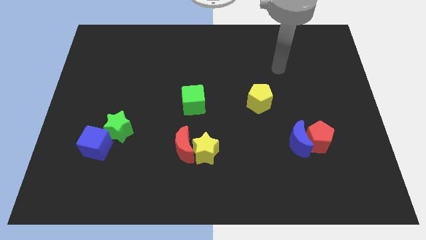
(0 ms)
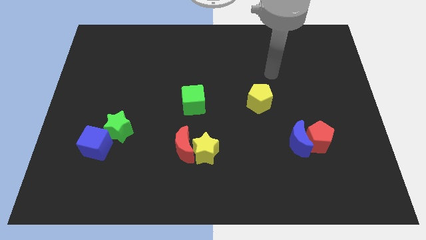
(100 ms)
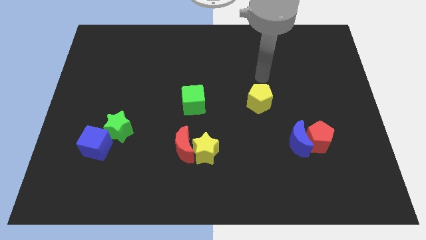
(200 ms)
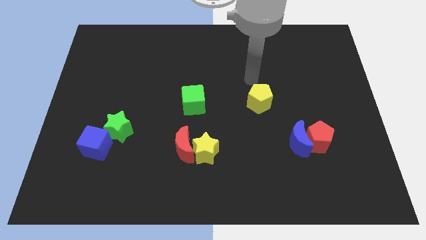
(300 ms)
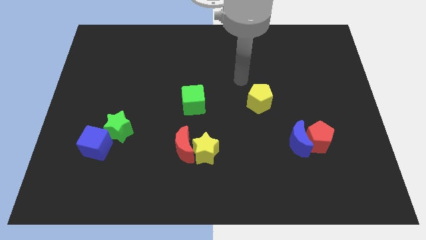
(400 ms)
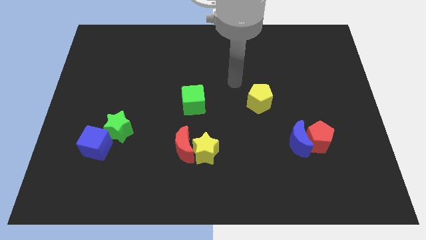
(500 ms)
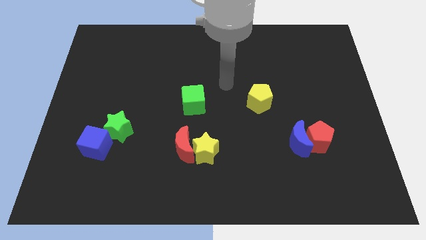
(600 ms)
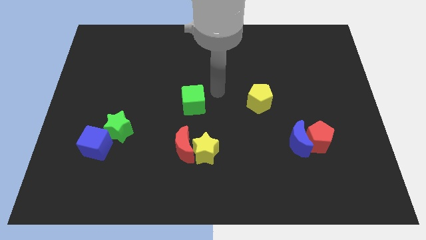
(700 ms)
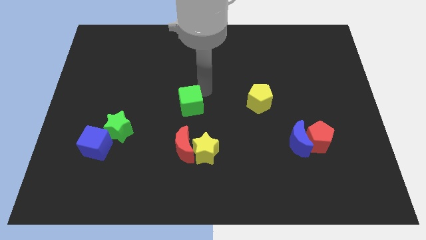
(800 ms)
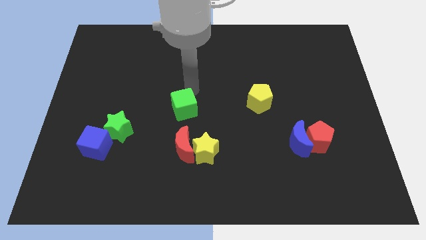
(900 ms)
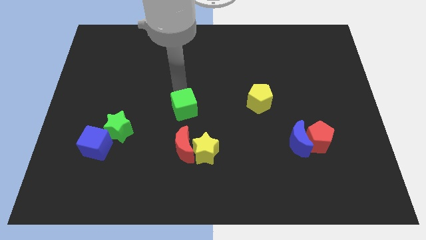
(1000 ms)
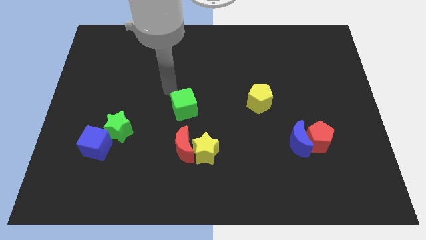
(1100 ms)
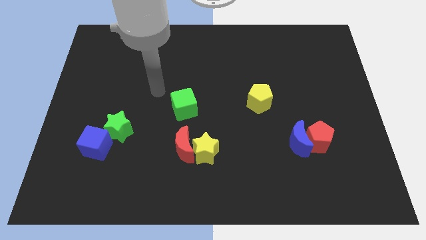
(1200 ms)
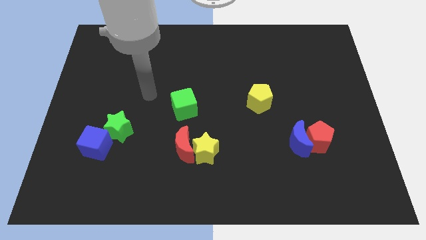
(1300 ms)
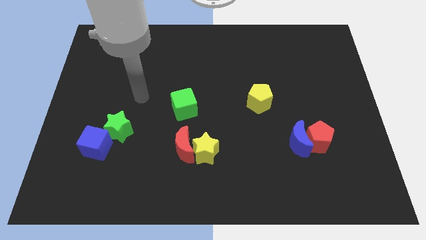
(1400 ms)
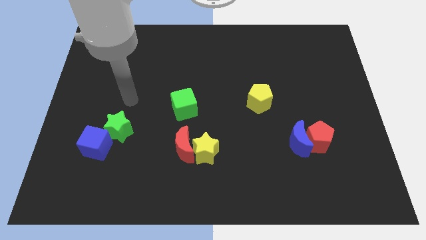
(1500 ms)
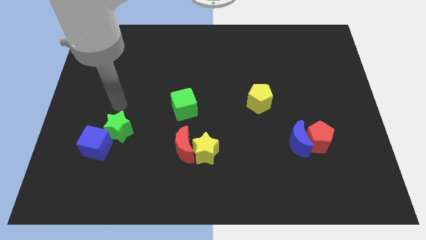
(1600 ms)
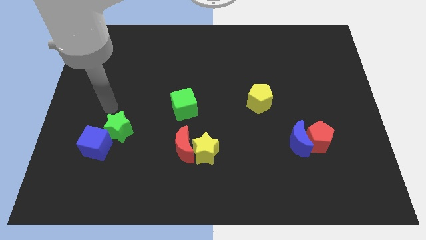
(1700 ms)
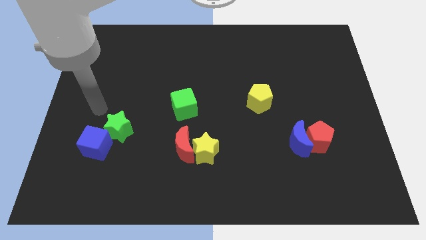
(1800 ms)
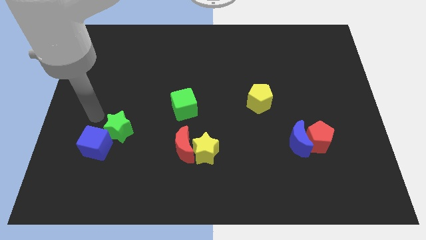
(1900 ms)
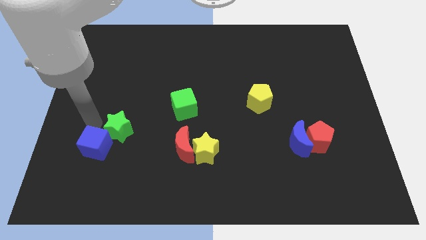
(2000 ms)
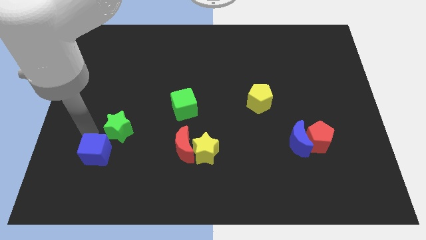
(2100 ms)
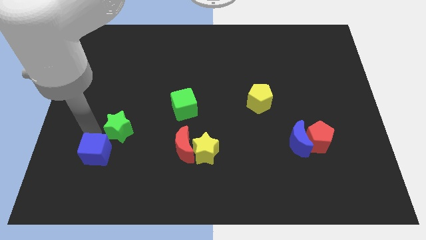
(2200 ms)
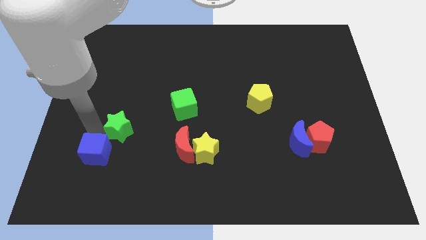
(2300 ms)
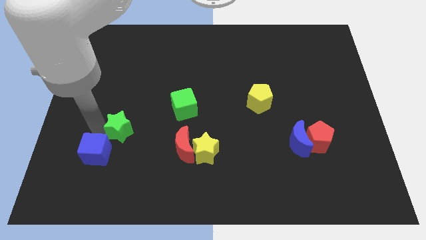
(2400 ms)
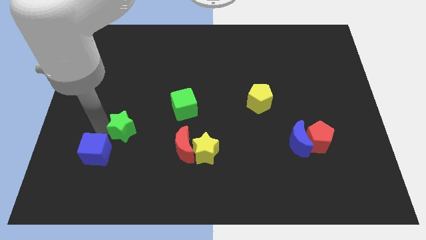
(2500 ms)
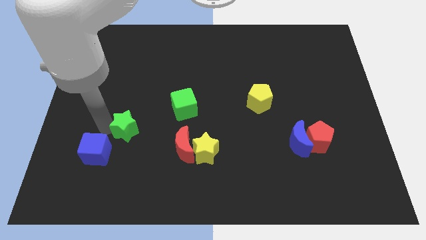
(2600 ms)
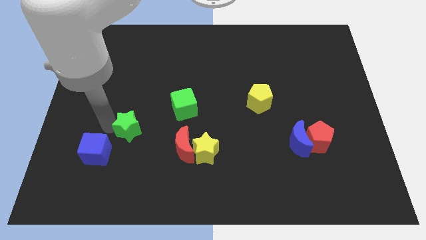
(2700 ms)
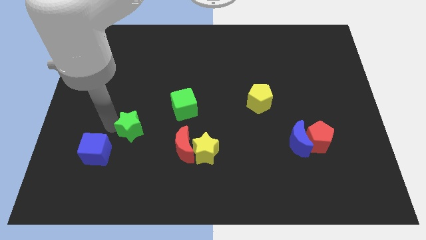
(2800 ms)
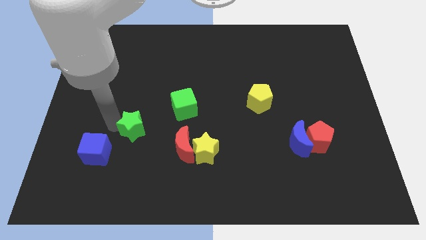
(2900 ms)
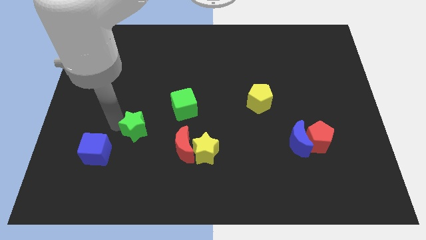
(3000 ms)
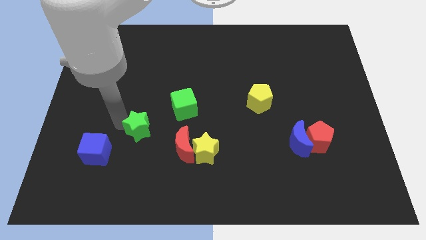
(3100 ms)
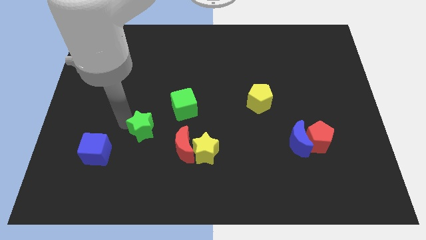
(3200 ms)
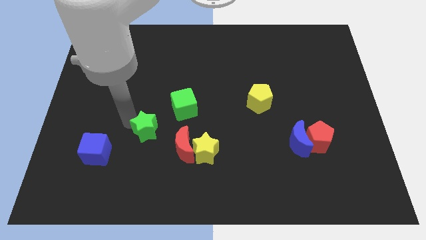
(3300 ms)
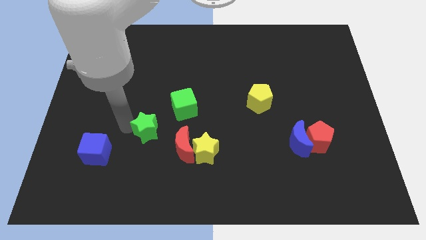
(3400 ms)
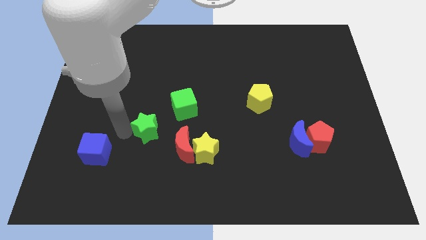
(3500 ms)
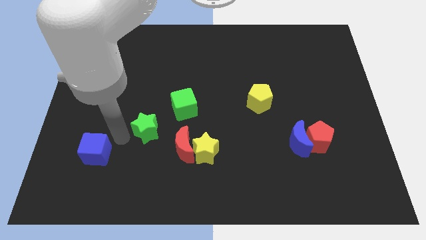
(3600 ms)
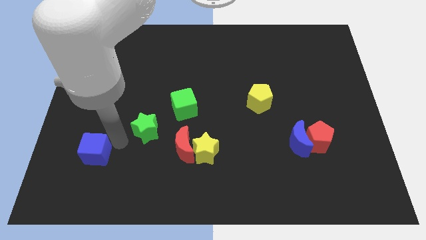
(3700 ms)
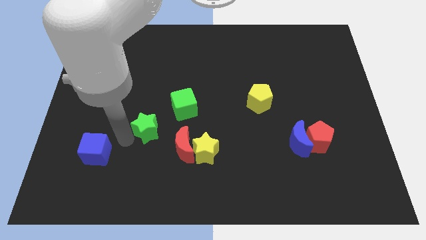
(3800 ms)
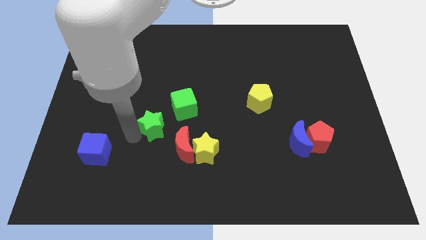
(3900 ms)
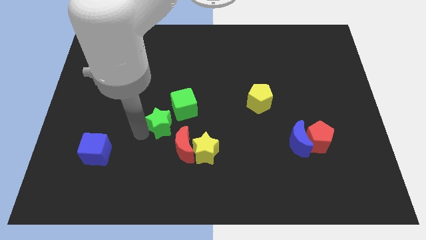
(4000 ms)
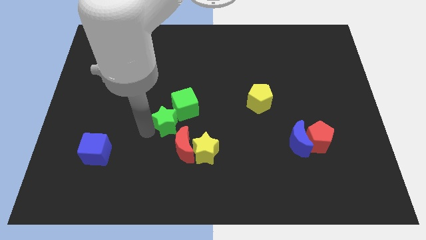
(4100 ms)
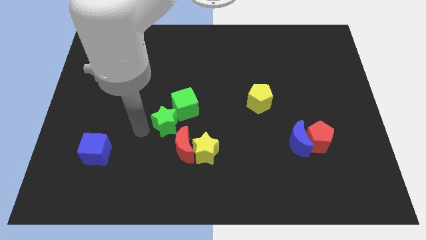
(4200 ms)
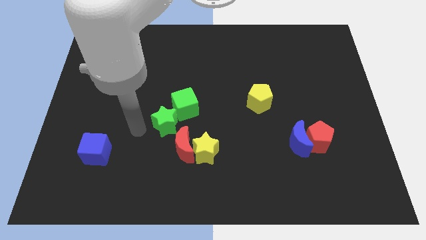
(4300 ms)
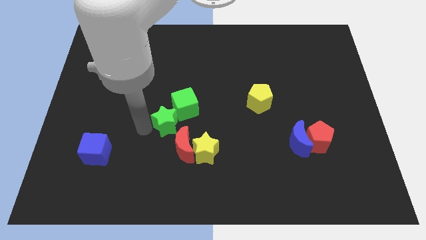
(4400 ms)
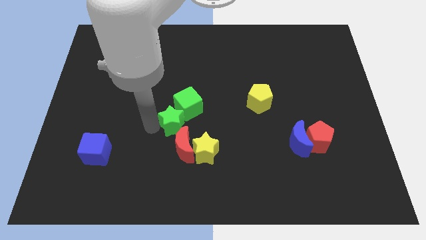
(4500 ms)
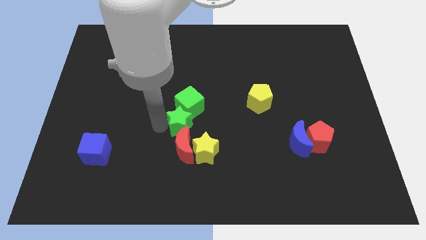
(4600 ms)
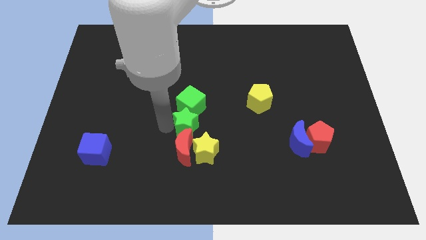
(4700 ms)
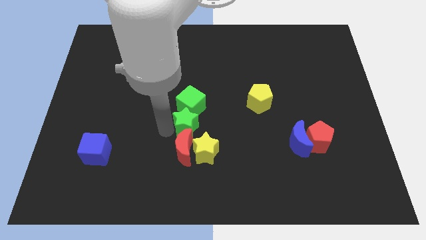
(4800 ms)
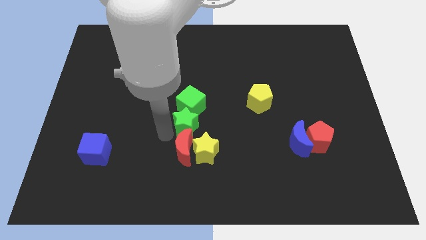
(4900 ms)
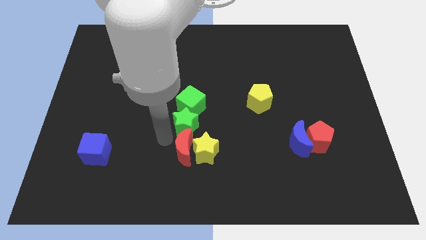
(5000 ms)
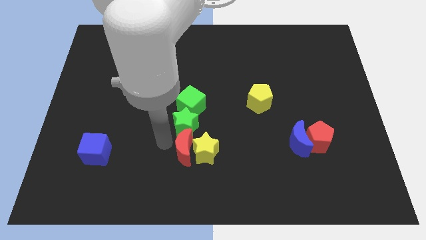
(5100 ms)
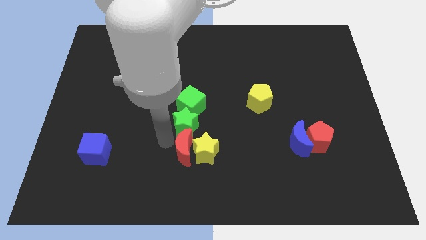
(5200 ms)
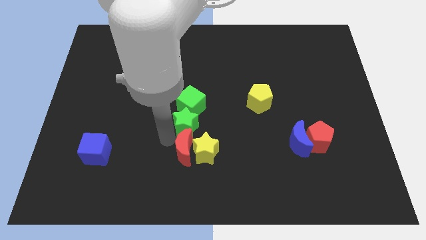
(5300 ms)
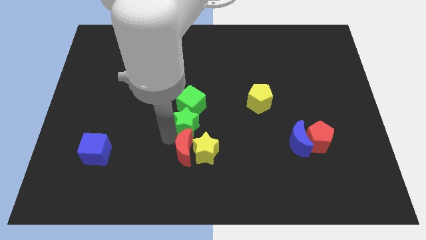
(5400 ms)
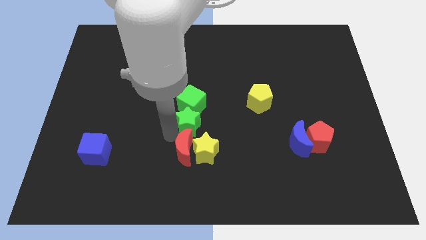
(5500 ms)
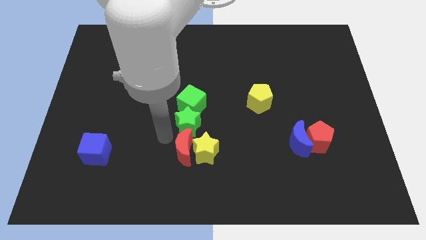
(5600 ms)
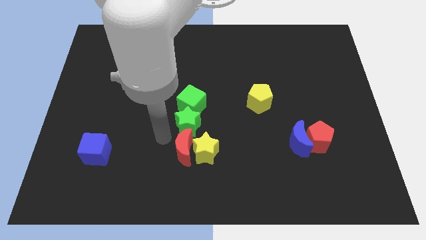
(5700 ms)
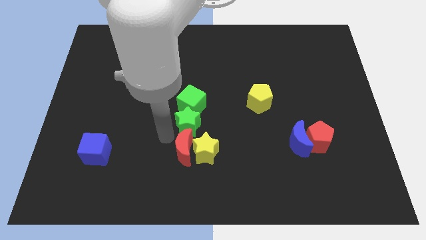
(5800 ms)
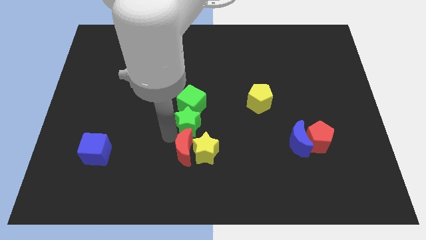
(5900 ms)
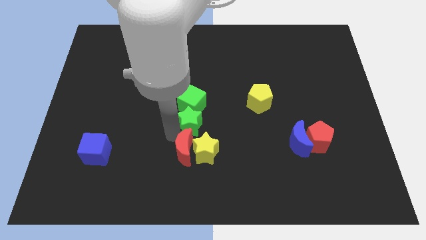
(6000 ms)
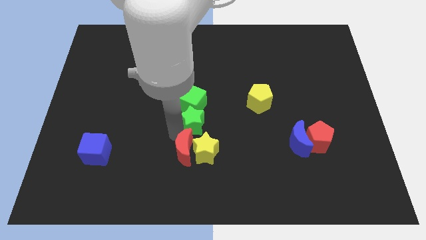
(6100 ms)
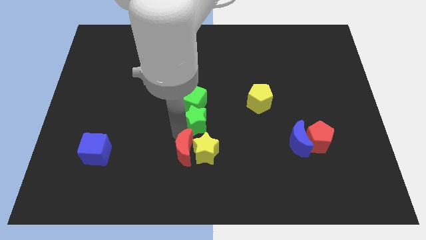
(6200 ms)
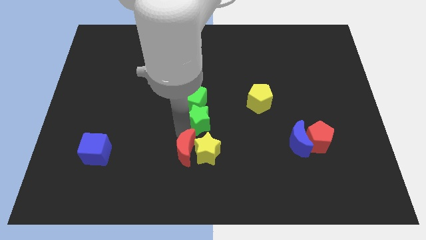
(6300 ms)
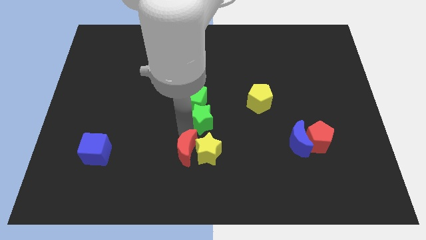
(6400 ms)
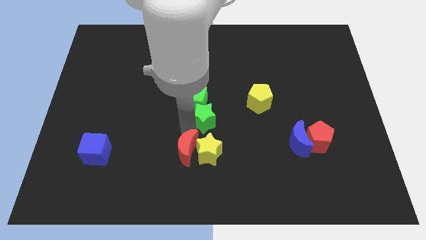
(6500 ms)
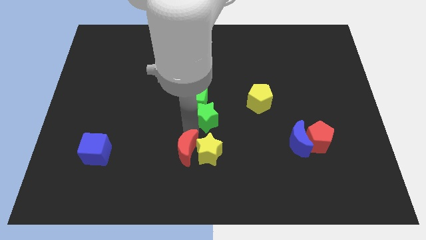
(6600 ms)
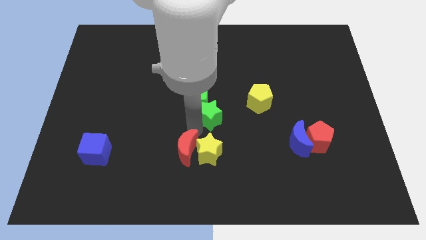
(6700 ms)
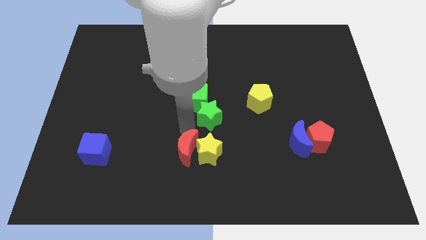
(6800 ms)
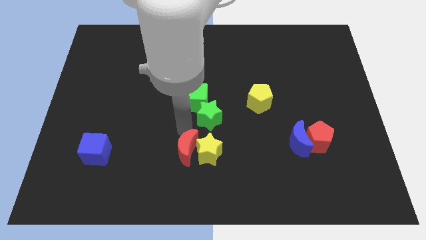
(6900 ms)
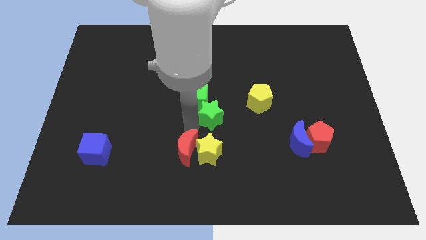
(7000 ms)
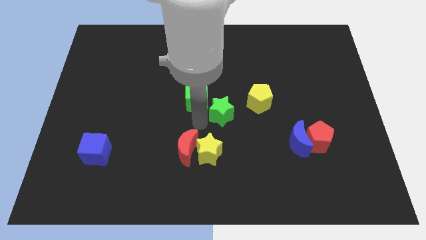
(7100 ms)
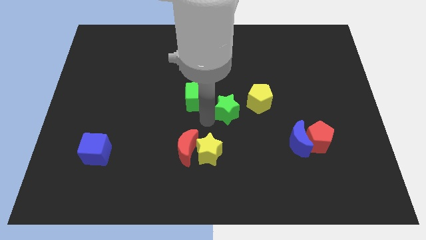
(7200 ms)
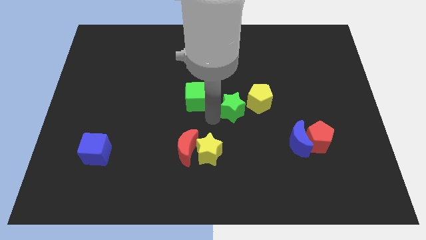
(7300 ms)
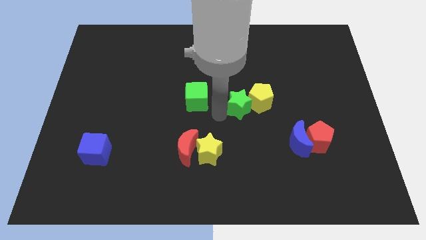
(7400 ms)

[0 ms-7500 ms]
put the green star towards the yellow pentagon
